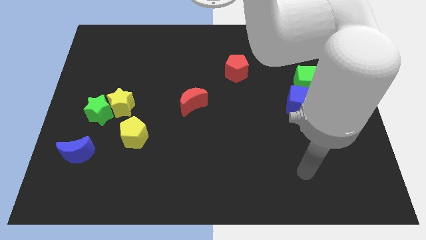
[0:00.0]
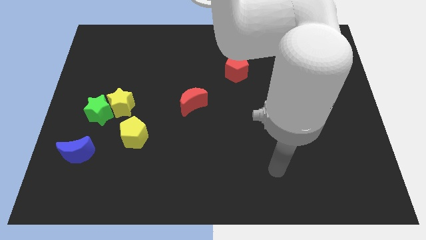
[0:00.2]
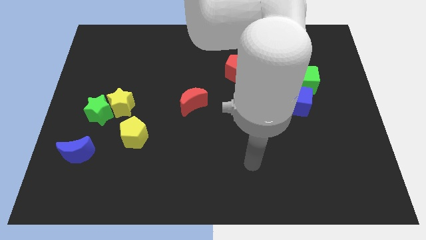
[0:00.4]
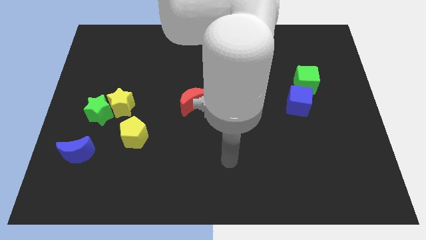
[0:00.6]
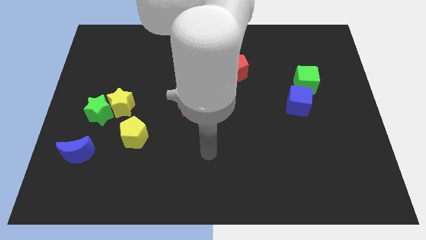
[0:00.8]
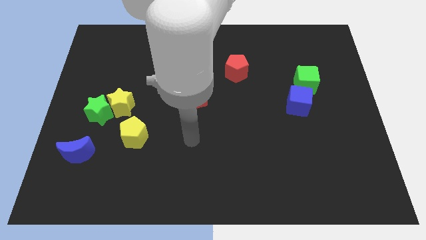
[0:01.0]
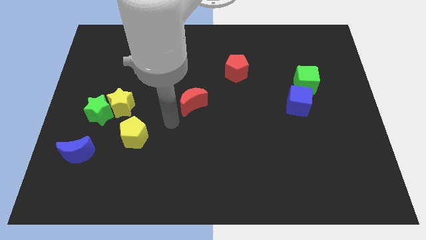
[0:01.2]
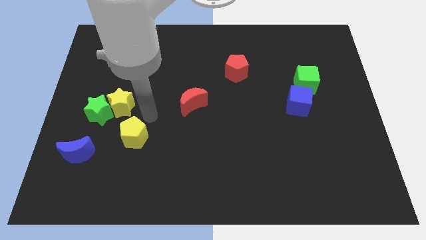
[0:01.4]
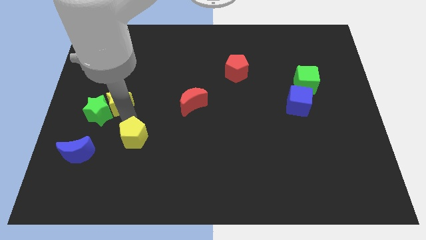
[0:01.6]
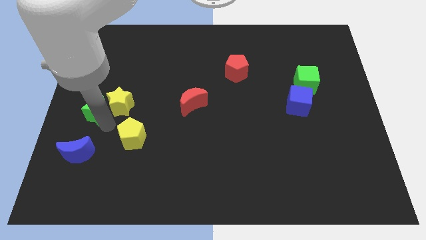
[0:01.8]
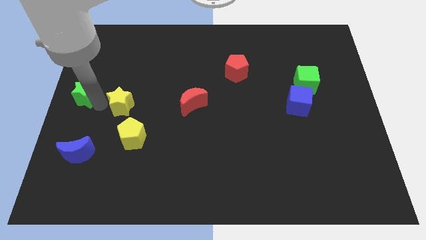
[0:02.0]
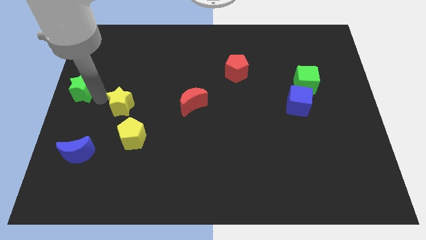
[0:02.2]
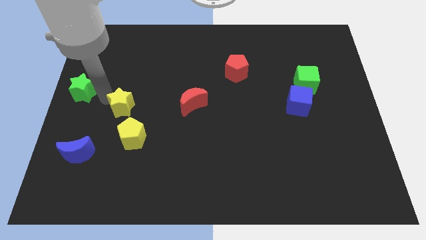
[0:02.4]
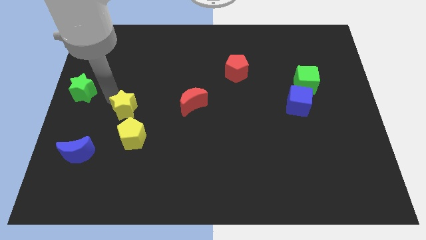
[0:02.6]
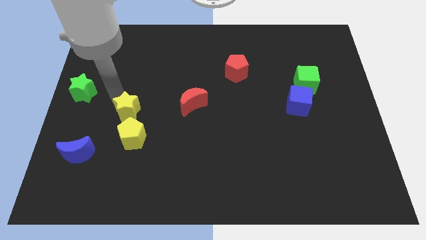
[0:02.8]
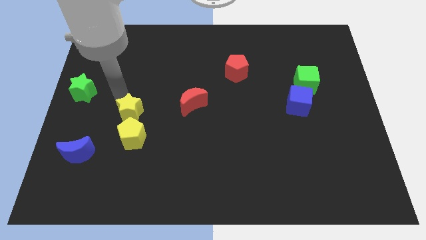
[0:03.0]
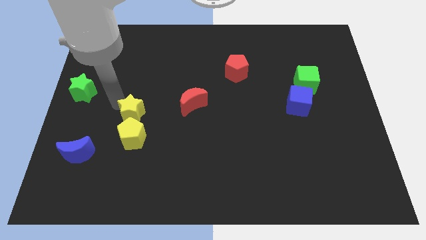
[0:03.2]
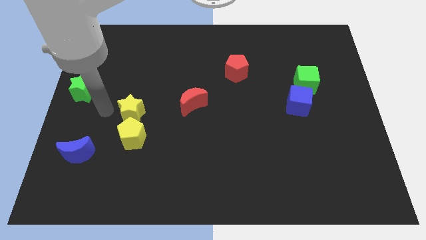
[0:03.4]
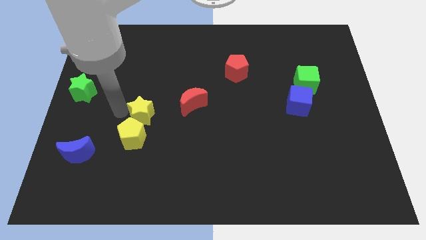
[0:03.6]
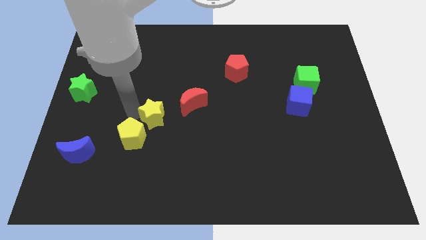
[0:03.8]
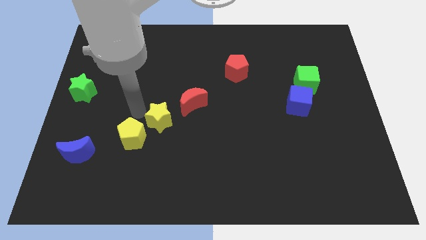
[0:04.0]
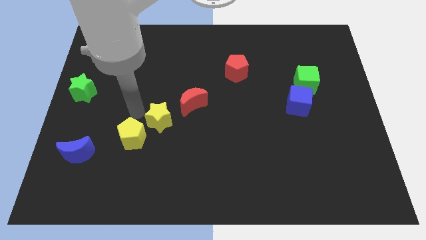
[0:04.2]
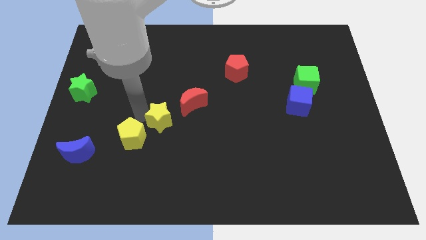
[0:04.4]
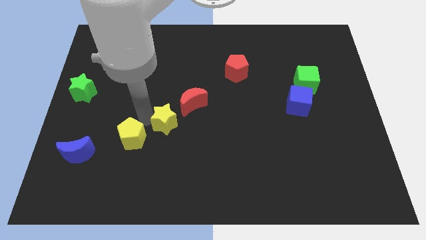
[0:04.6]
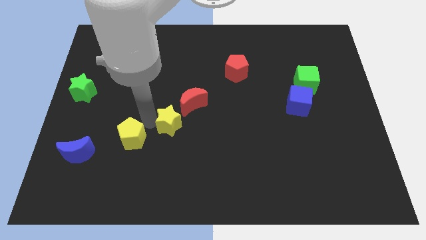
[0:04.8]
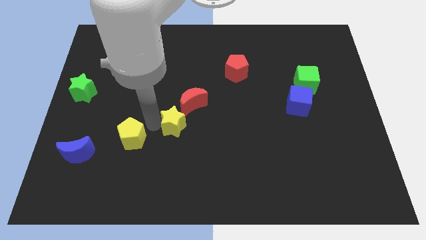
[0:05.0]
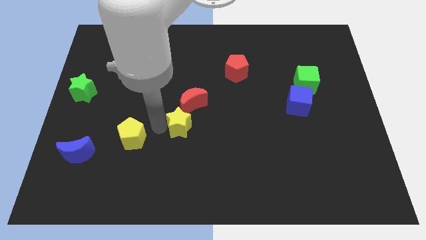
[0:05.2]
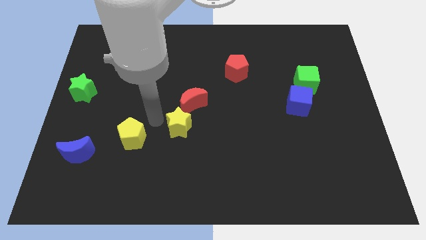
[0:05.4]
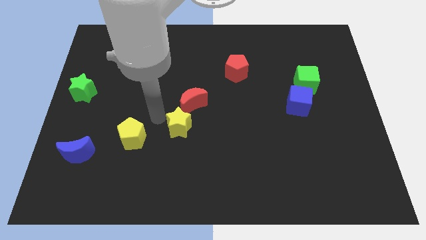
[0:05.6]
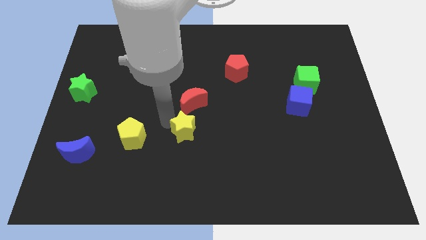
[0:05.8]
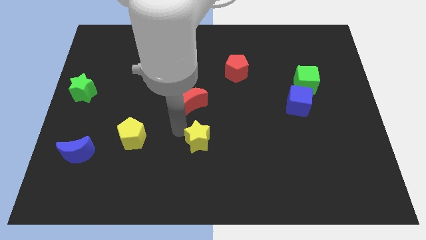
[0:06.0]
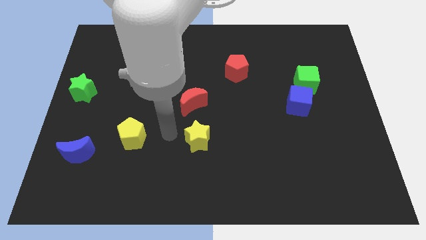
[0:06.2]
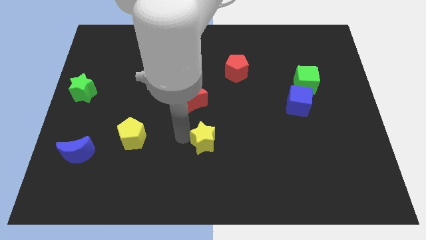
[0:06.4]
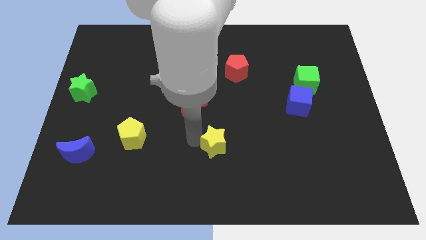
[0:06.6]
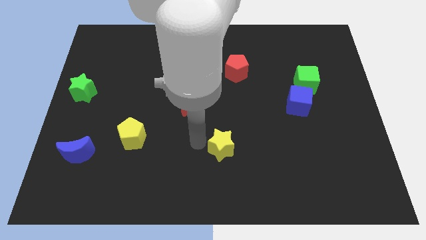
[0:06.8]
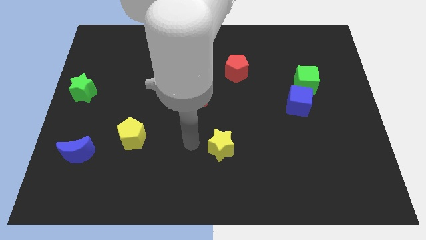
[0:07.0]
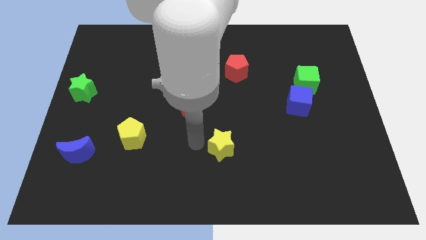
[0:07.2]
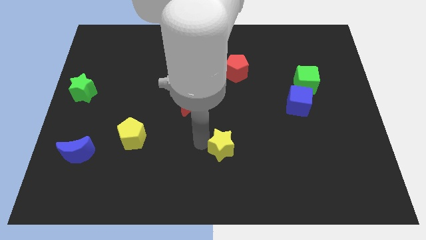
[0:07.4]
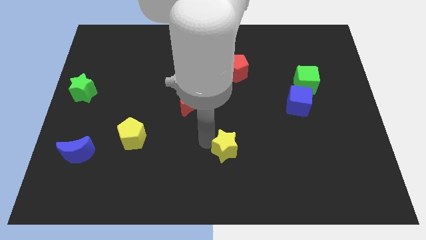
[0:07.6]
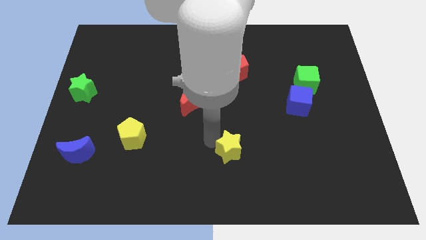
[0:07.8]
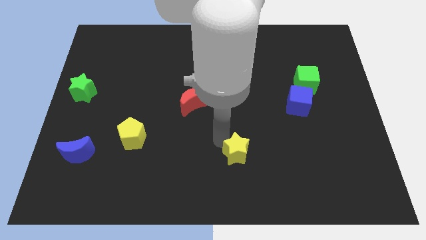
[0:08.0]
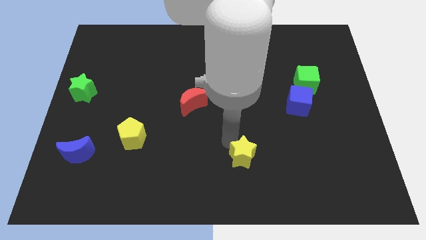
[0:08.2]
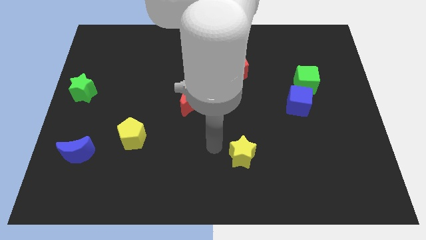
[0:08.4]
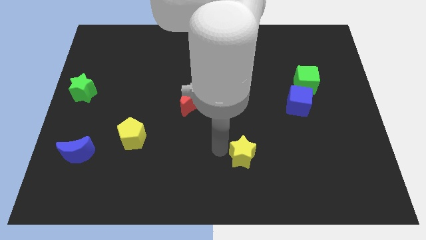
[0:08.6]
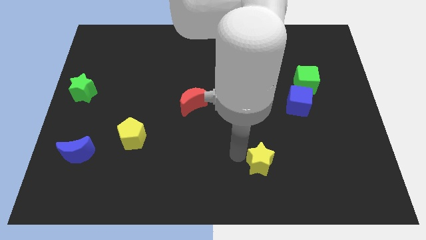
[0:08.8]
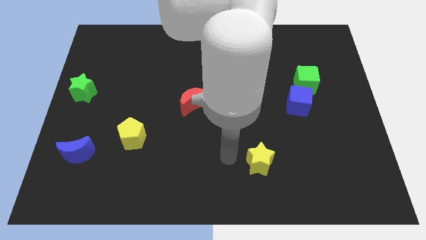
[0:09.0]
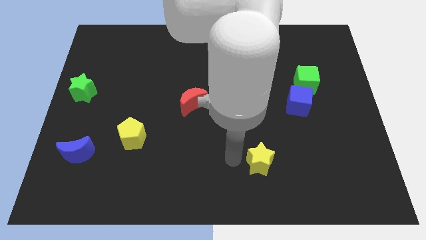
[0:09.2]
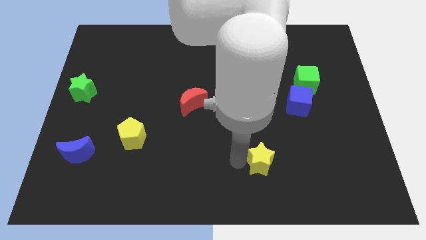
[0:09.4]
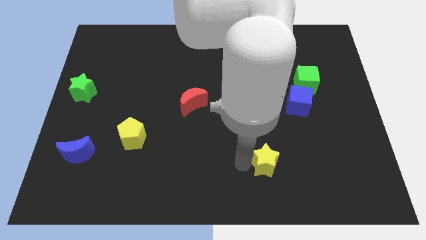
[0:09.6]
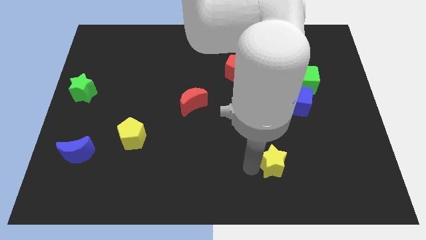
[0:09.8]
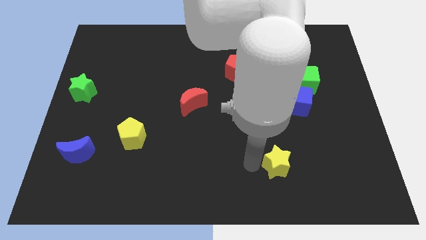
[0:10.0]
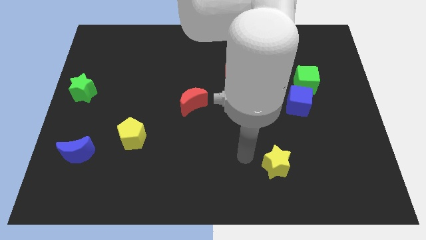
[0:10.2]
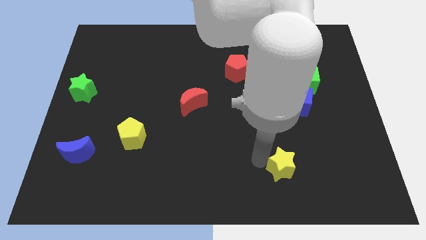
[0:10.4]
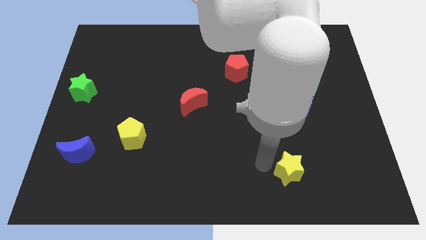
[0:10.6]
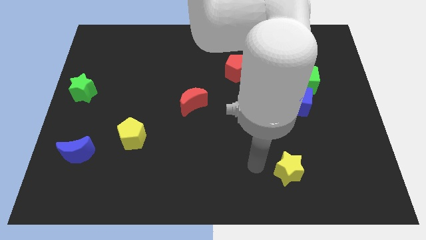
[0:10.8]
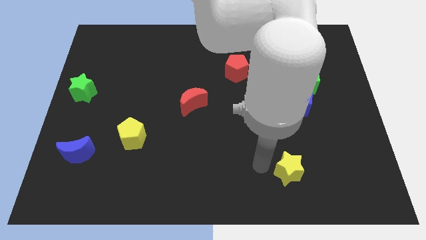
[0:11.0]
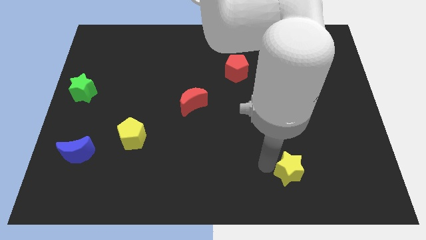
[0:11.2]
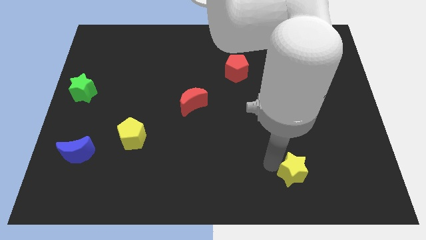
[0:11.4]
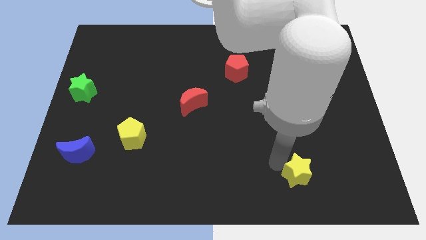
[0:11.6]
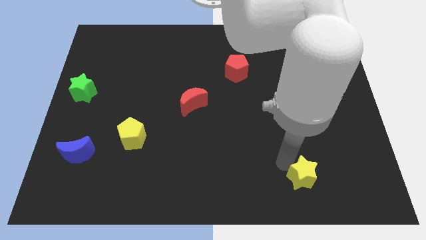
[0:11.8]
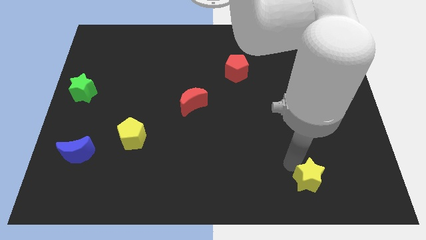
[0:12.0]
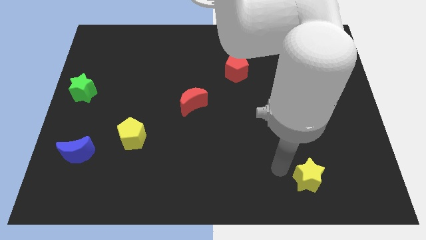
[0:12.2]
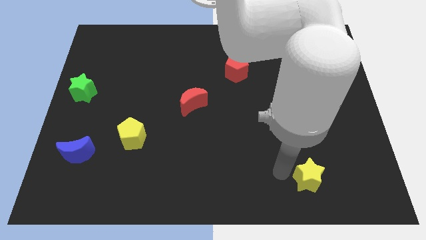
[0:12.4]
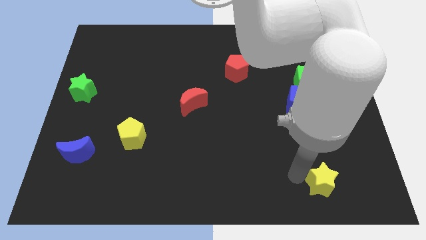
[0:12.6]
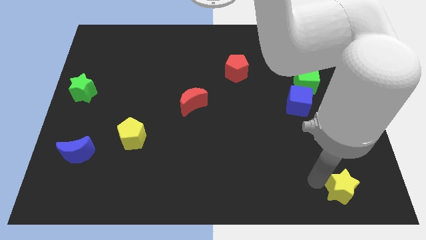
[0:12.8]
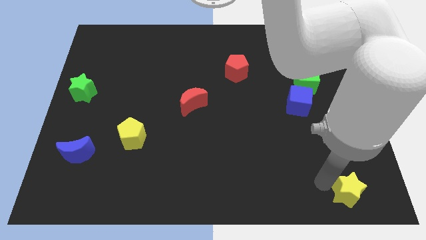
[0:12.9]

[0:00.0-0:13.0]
put the yellow star to the bottom right corner

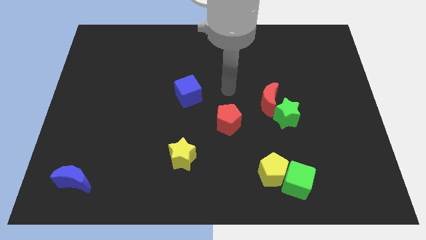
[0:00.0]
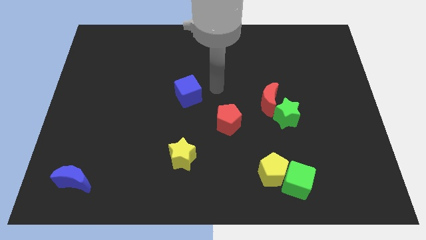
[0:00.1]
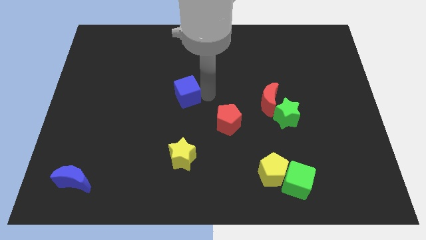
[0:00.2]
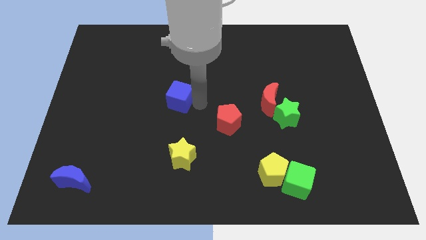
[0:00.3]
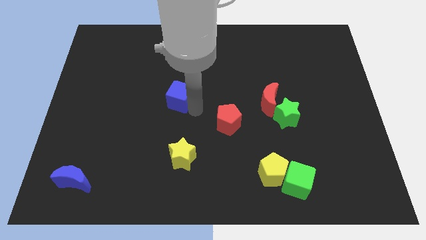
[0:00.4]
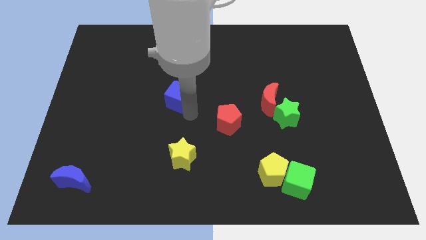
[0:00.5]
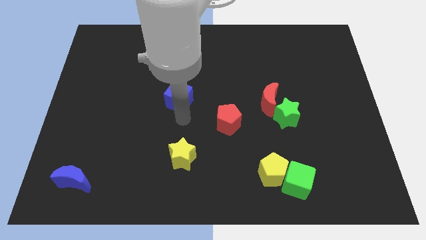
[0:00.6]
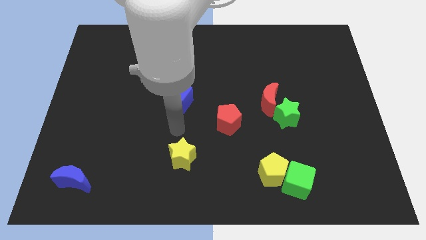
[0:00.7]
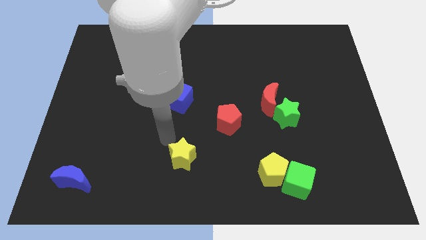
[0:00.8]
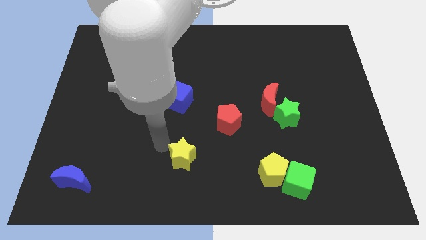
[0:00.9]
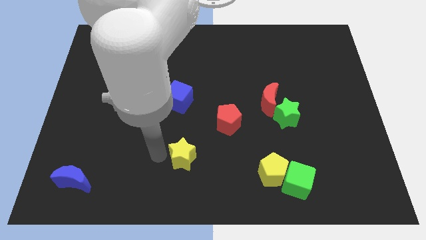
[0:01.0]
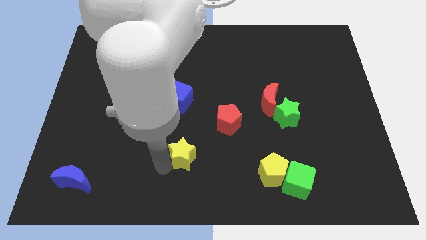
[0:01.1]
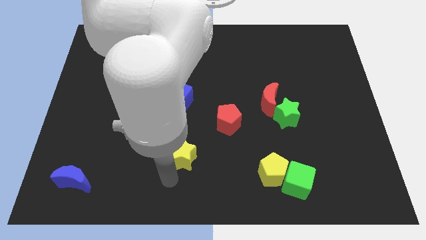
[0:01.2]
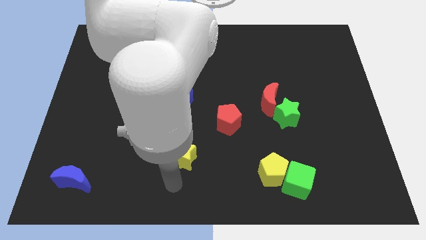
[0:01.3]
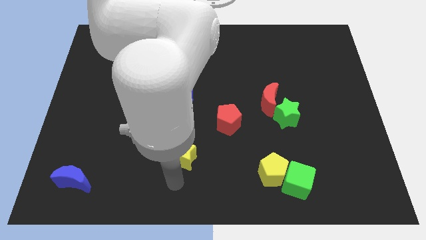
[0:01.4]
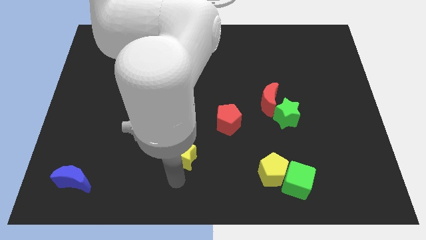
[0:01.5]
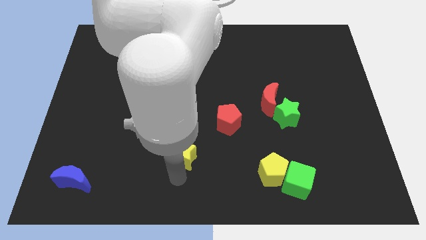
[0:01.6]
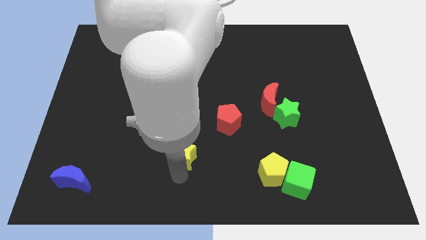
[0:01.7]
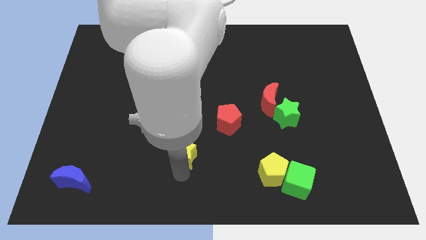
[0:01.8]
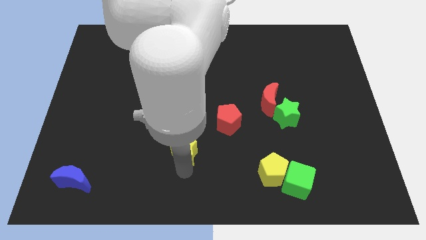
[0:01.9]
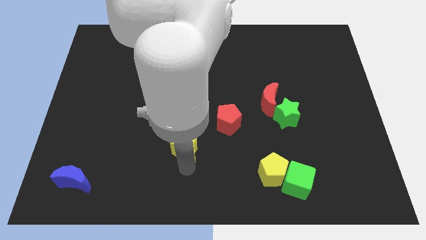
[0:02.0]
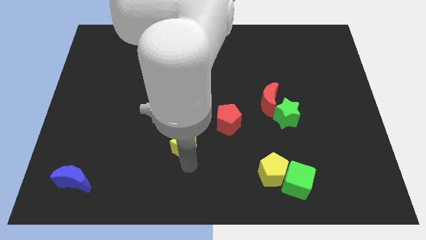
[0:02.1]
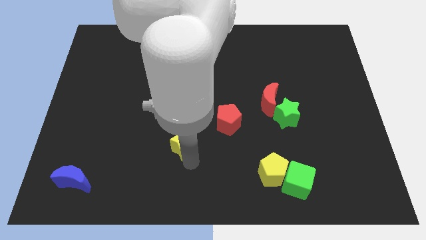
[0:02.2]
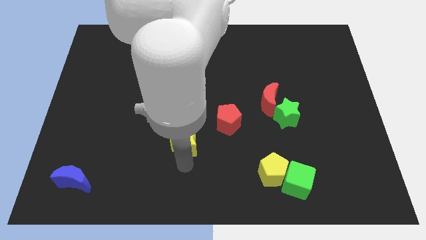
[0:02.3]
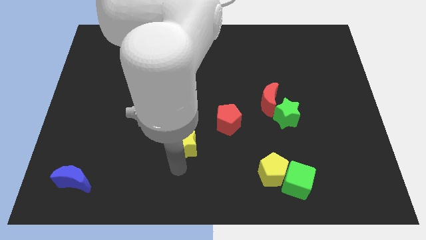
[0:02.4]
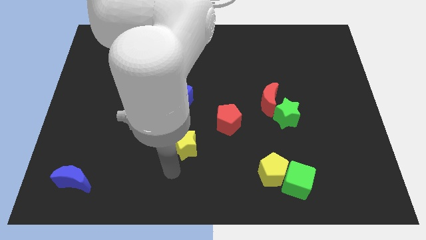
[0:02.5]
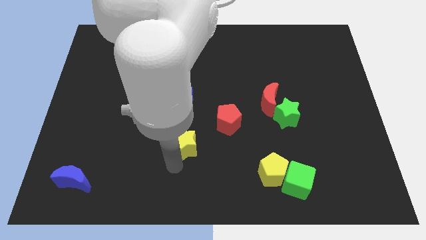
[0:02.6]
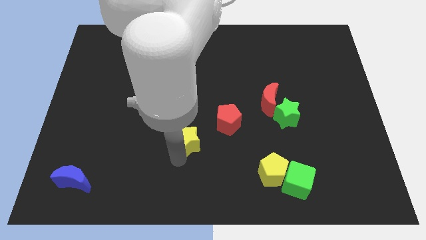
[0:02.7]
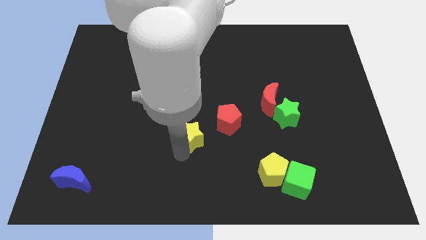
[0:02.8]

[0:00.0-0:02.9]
push the yellow star to the middle of the board
